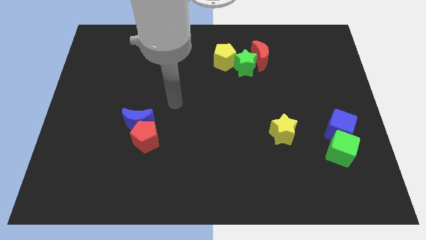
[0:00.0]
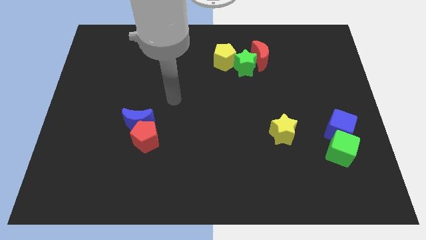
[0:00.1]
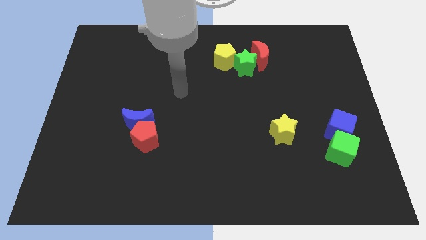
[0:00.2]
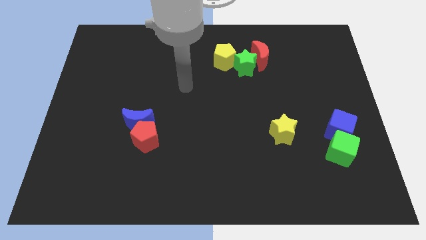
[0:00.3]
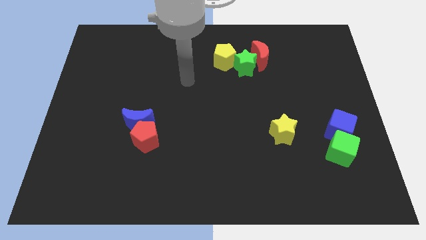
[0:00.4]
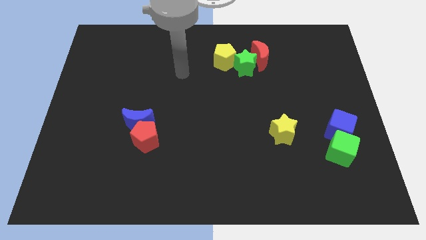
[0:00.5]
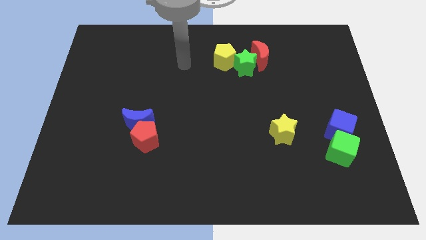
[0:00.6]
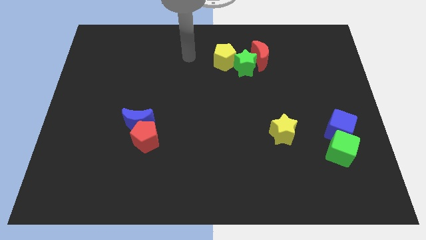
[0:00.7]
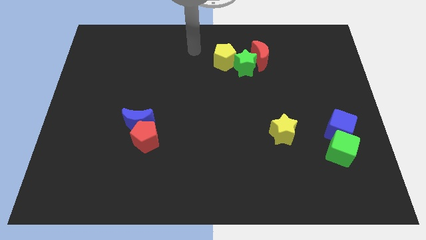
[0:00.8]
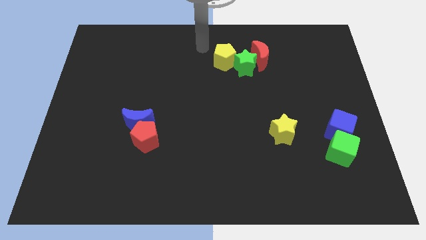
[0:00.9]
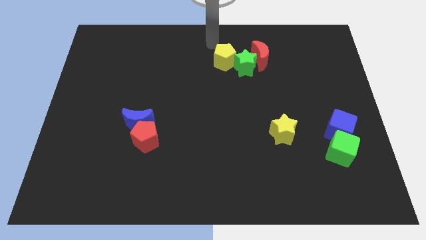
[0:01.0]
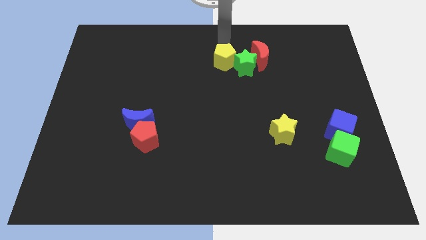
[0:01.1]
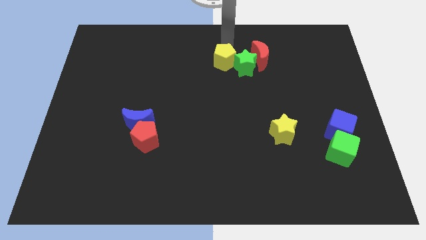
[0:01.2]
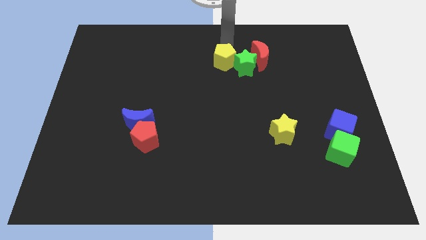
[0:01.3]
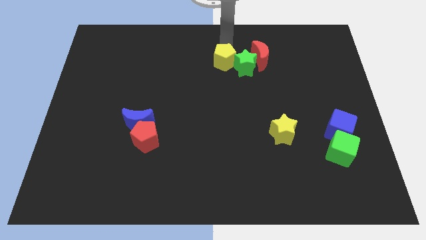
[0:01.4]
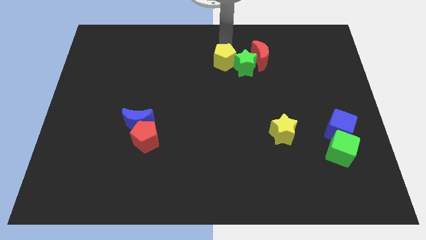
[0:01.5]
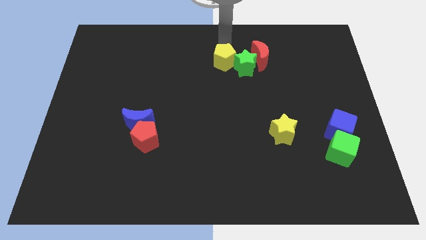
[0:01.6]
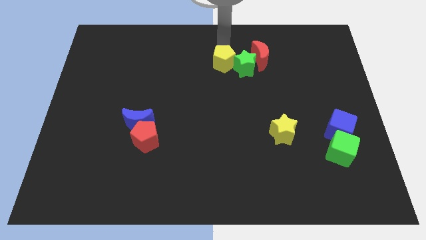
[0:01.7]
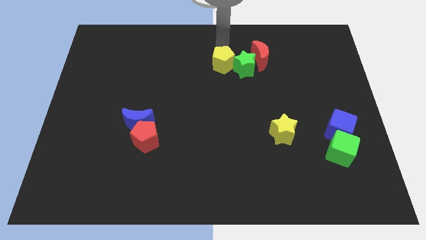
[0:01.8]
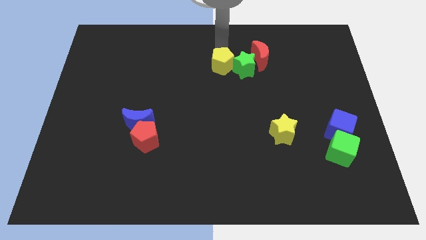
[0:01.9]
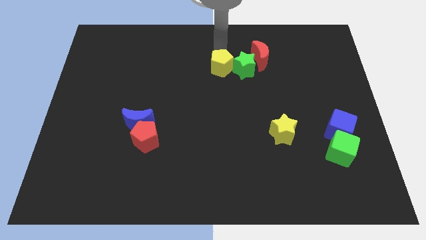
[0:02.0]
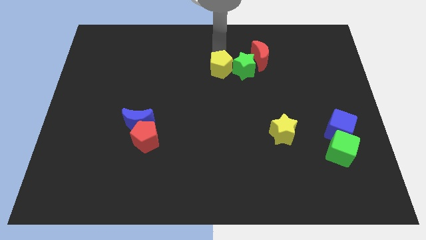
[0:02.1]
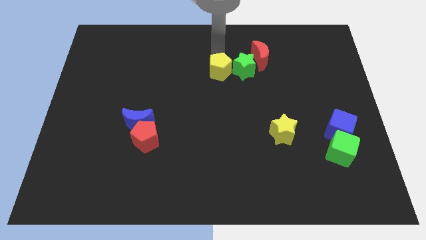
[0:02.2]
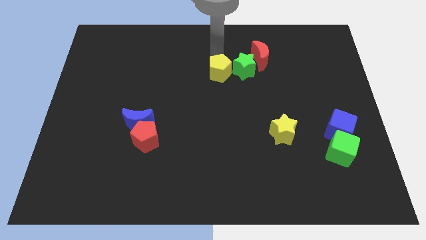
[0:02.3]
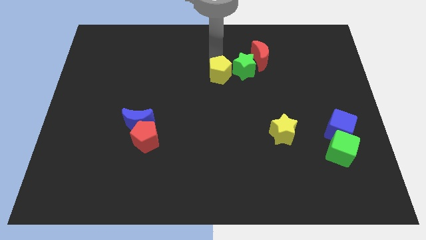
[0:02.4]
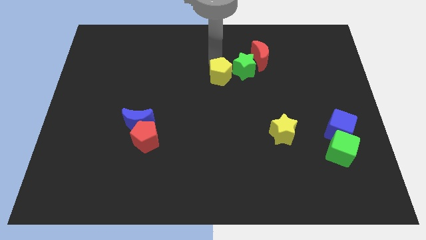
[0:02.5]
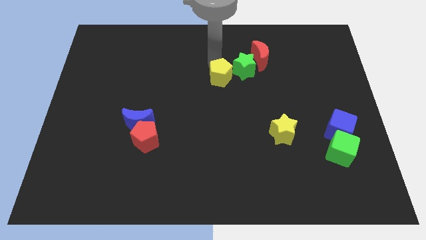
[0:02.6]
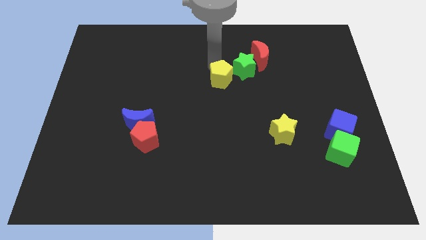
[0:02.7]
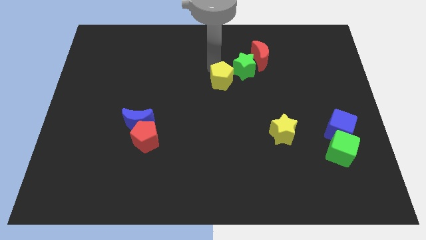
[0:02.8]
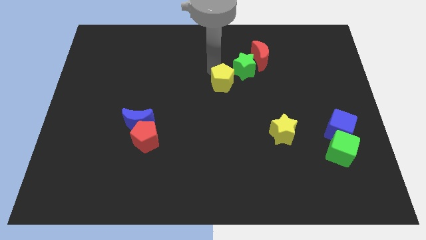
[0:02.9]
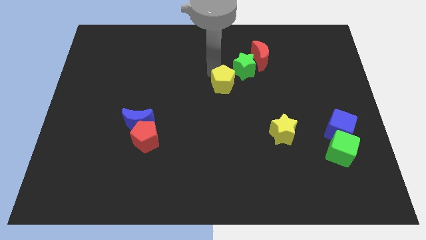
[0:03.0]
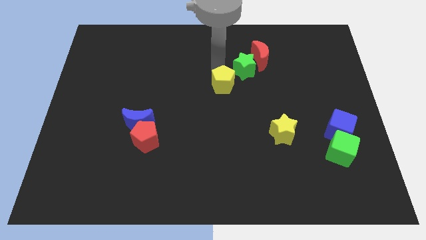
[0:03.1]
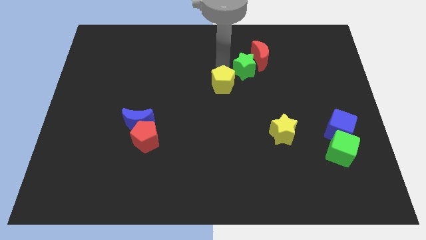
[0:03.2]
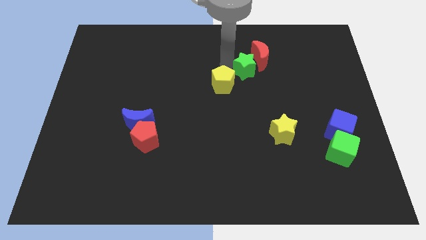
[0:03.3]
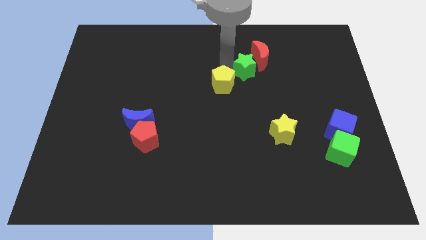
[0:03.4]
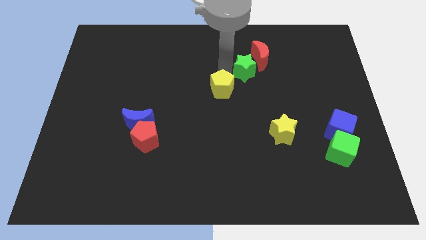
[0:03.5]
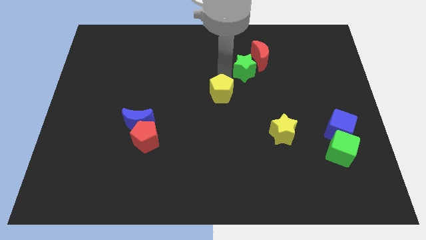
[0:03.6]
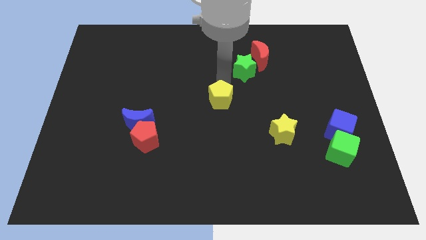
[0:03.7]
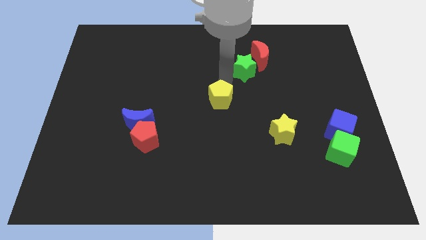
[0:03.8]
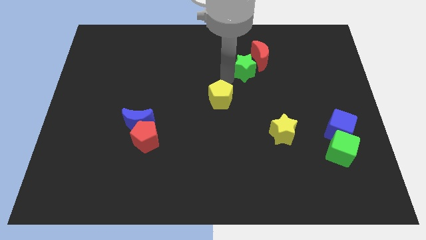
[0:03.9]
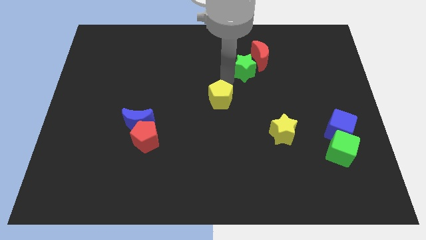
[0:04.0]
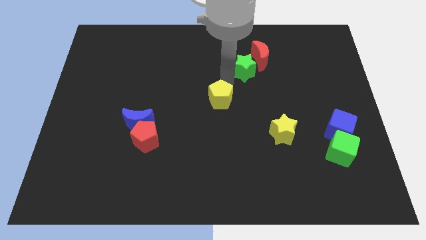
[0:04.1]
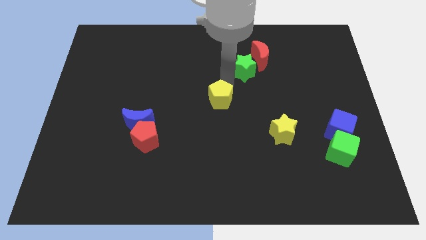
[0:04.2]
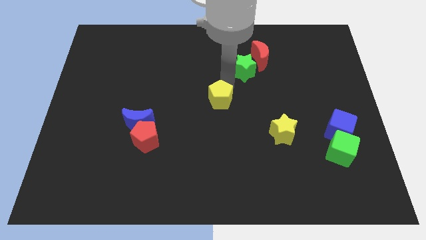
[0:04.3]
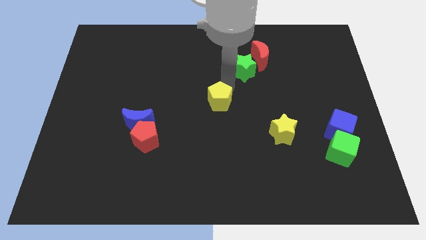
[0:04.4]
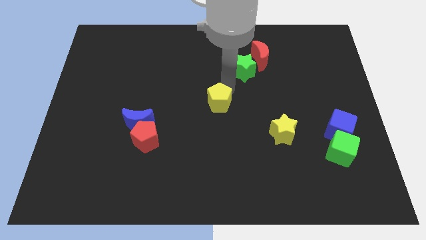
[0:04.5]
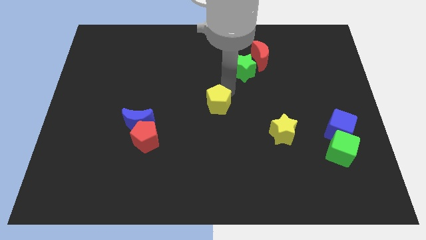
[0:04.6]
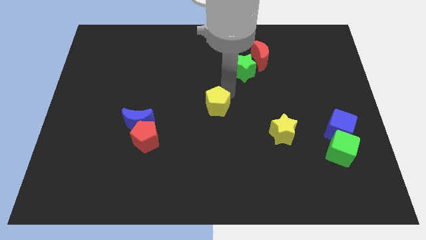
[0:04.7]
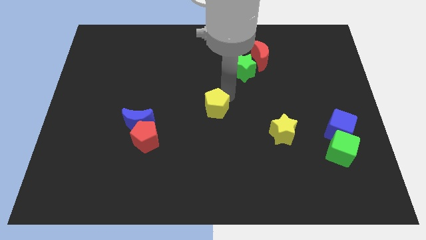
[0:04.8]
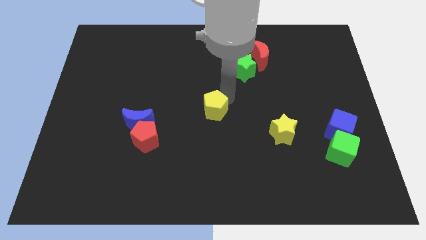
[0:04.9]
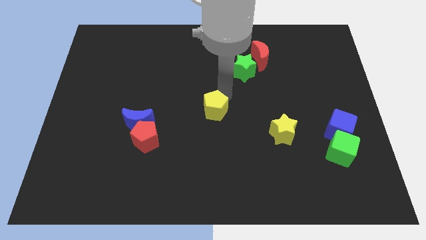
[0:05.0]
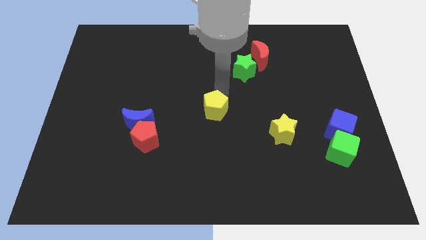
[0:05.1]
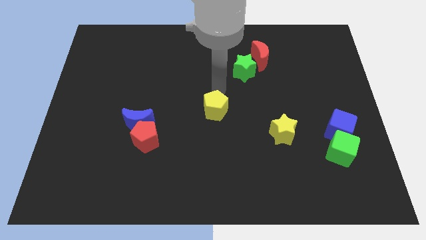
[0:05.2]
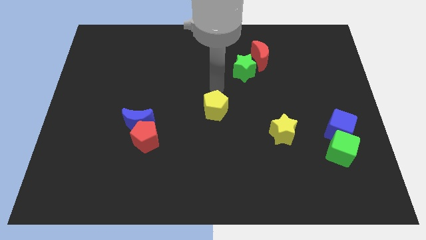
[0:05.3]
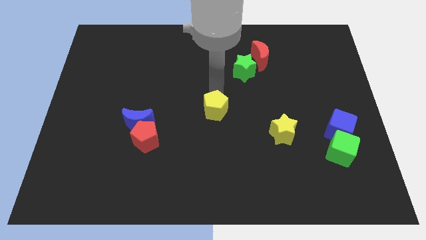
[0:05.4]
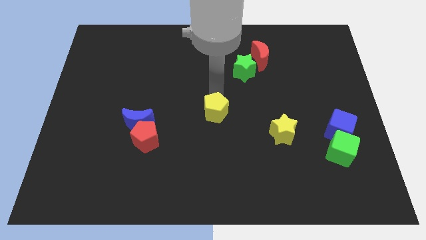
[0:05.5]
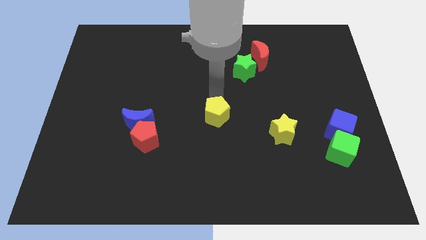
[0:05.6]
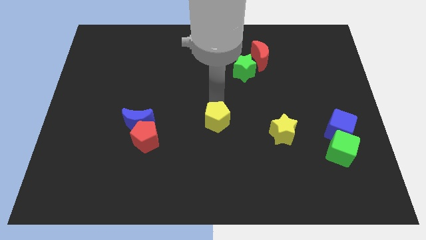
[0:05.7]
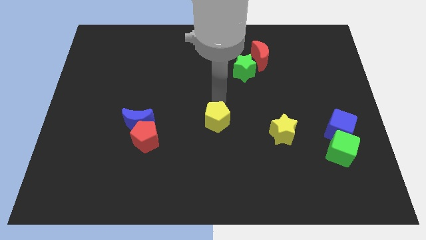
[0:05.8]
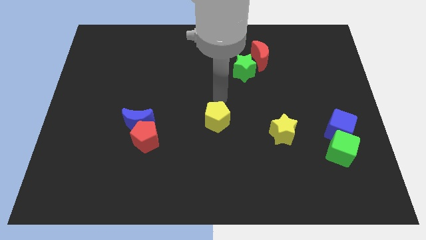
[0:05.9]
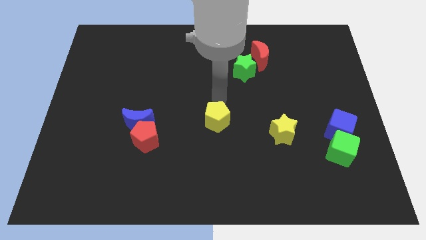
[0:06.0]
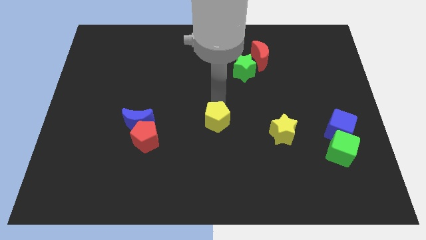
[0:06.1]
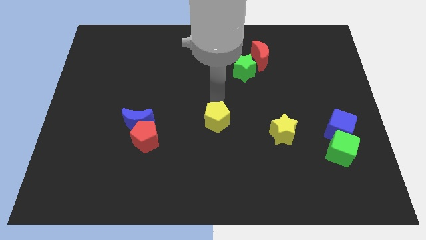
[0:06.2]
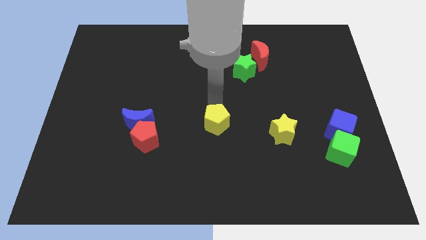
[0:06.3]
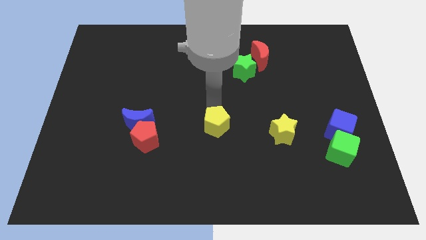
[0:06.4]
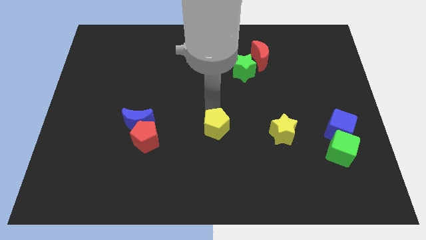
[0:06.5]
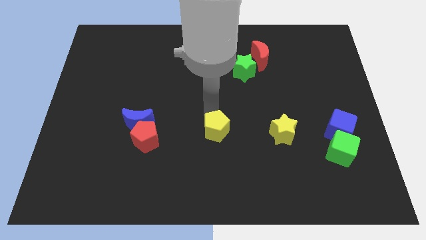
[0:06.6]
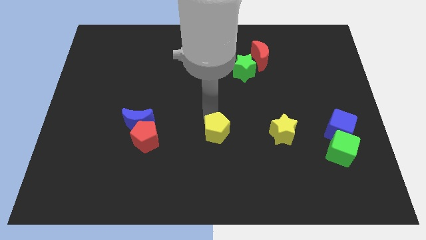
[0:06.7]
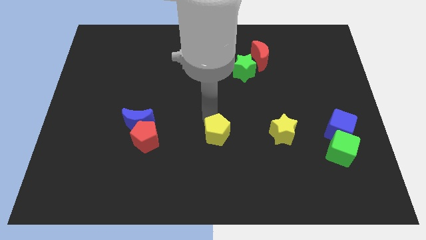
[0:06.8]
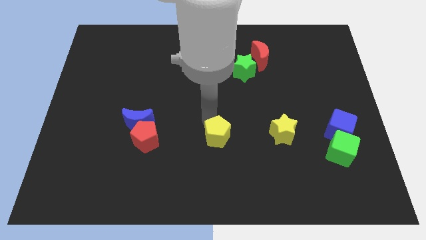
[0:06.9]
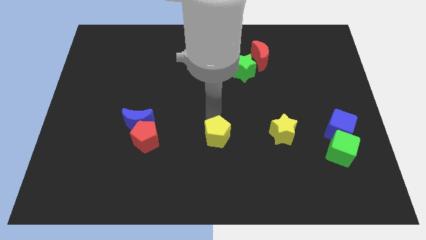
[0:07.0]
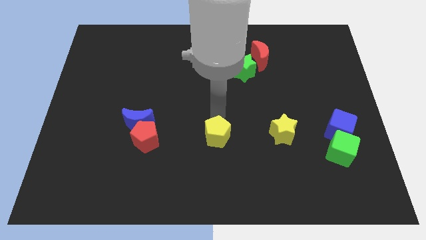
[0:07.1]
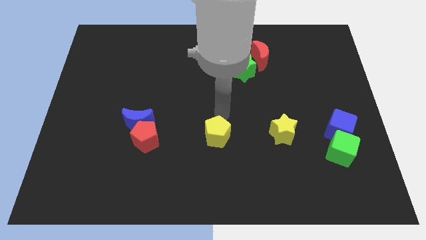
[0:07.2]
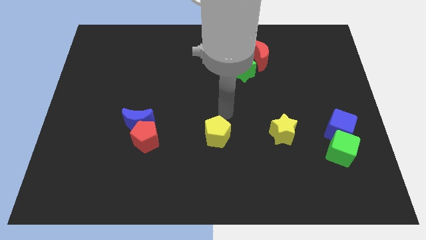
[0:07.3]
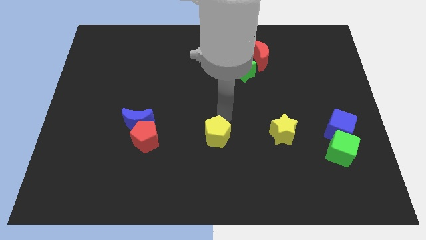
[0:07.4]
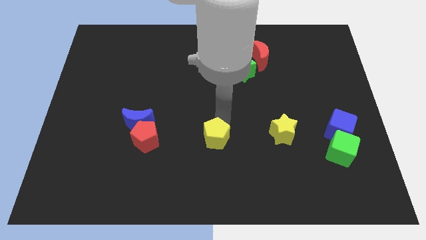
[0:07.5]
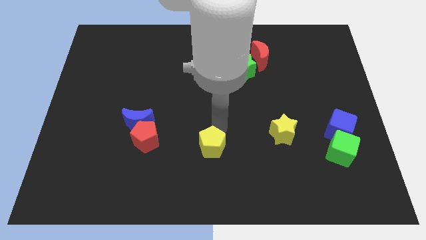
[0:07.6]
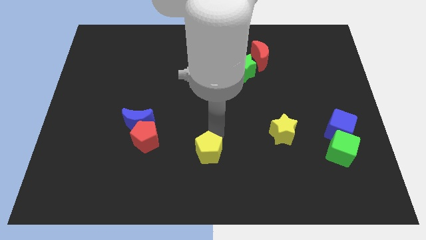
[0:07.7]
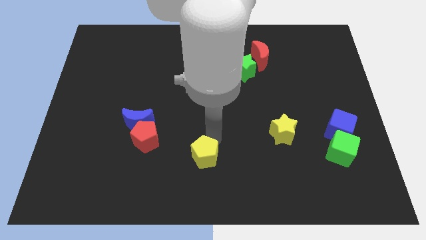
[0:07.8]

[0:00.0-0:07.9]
push the yellow pentagon to the bottom side
